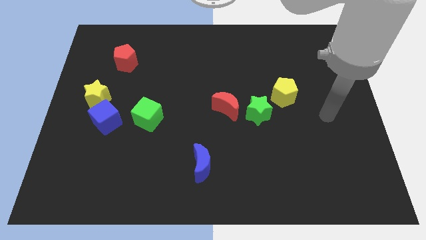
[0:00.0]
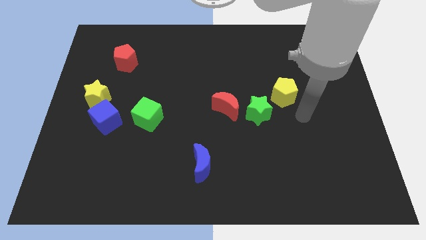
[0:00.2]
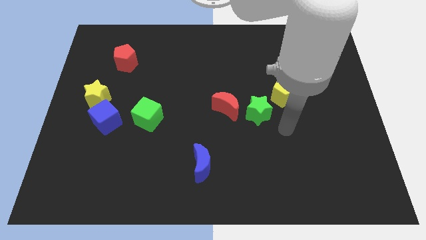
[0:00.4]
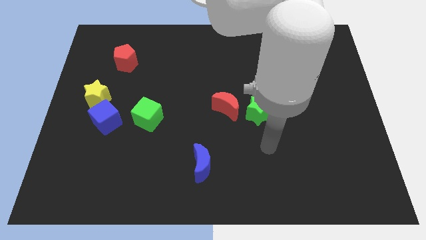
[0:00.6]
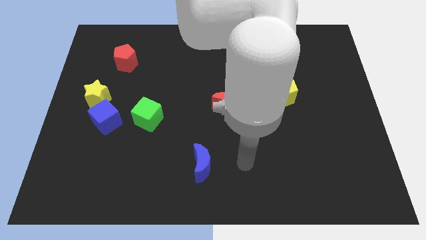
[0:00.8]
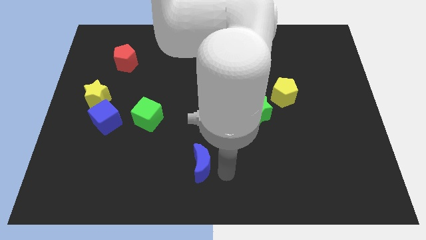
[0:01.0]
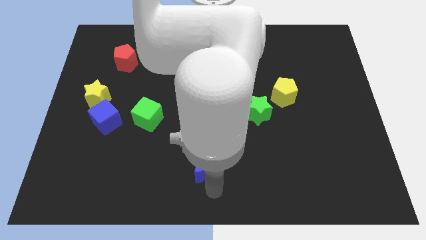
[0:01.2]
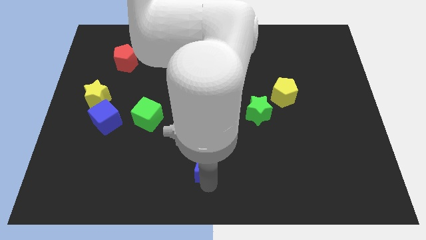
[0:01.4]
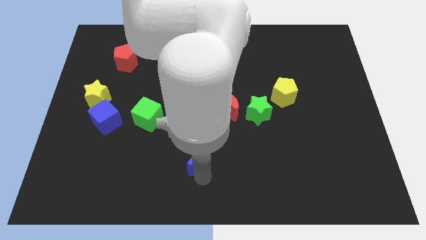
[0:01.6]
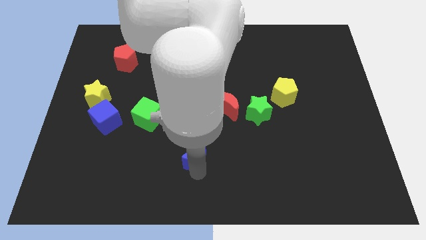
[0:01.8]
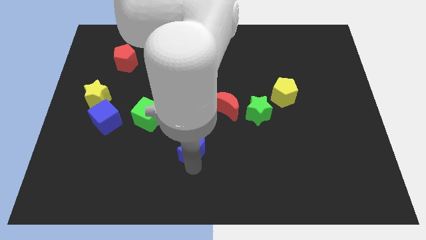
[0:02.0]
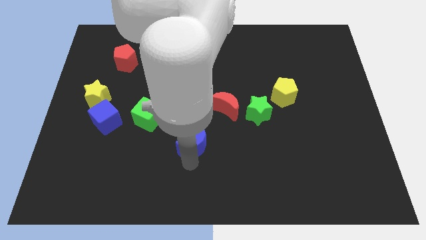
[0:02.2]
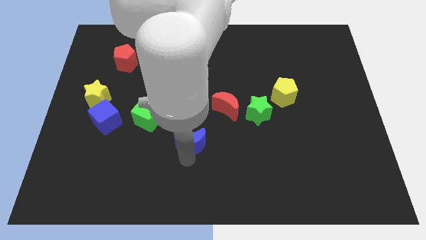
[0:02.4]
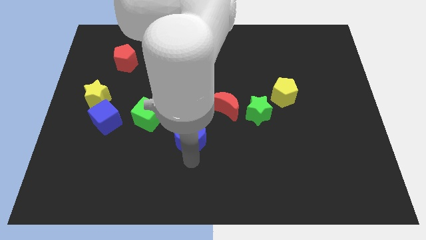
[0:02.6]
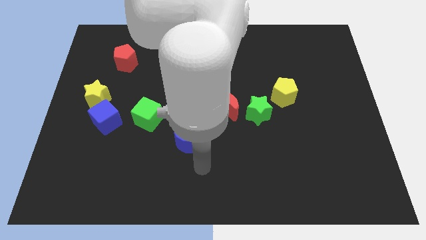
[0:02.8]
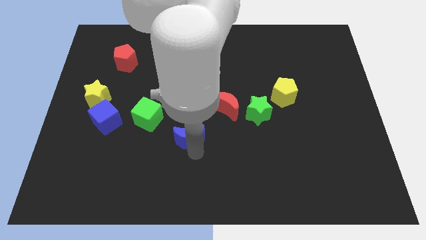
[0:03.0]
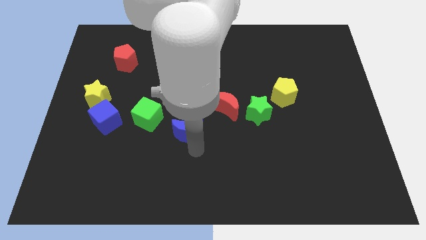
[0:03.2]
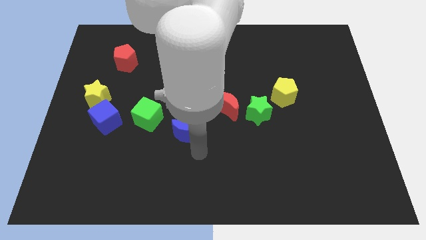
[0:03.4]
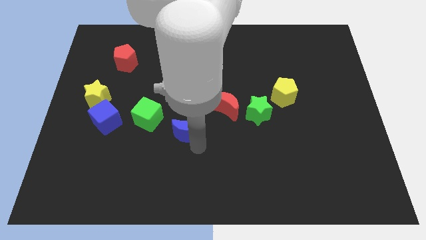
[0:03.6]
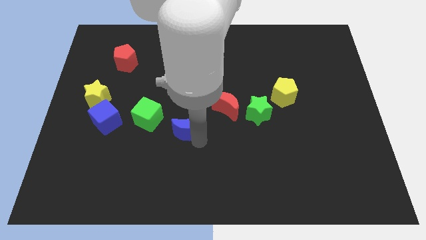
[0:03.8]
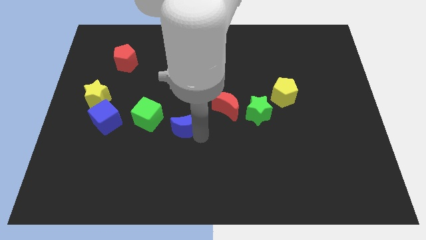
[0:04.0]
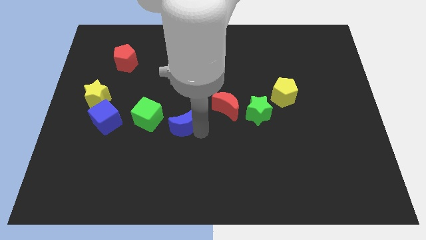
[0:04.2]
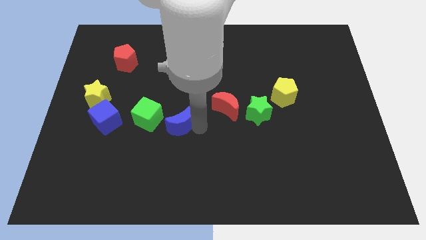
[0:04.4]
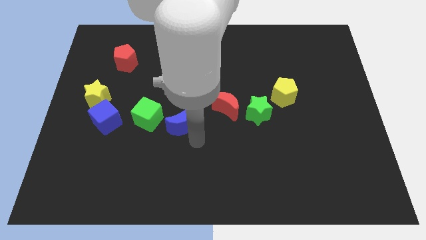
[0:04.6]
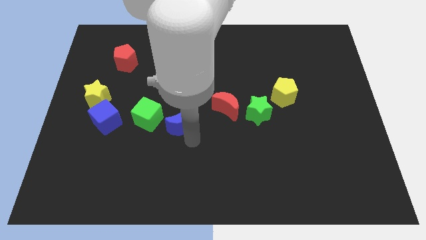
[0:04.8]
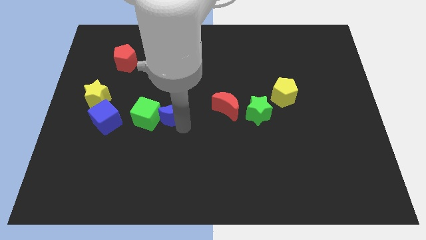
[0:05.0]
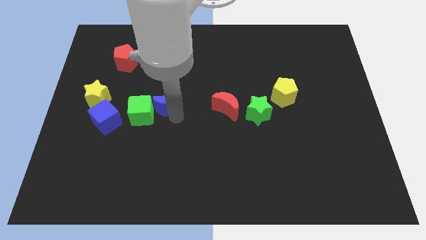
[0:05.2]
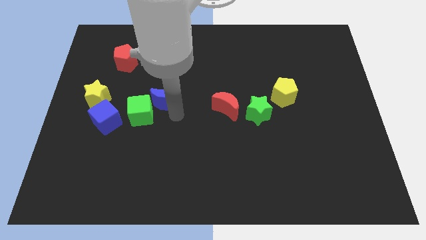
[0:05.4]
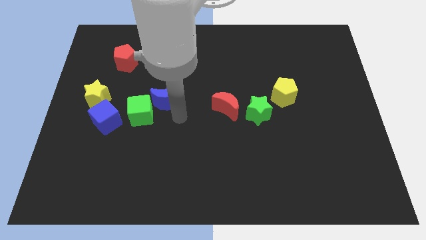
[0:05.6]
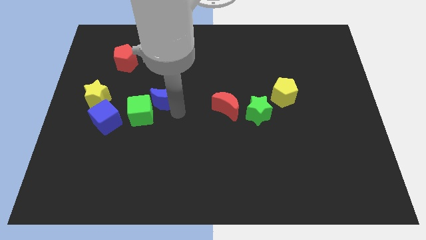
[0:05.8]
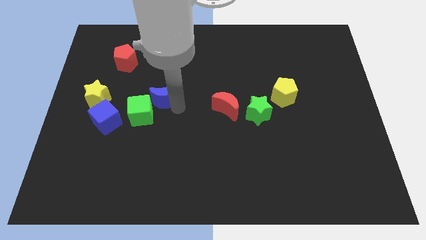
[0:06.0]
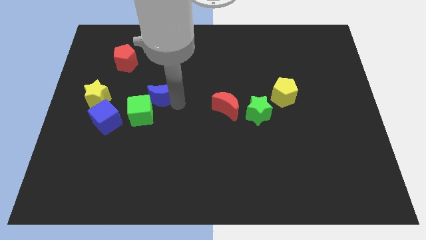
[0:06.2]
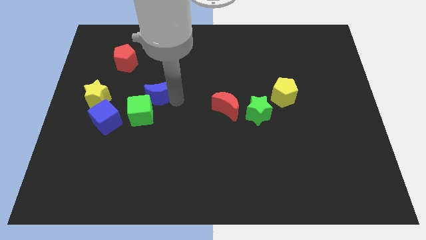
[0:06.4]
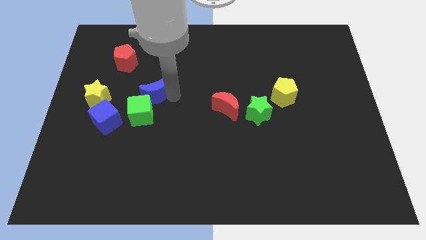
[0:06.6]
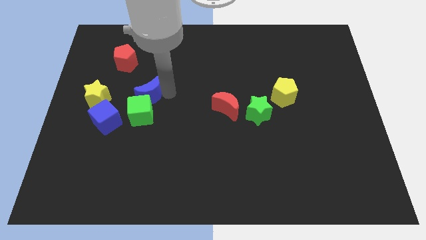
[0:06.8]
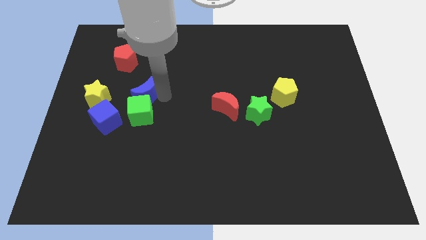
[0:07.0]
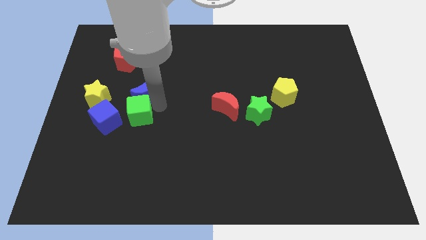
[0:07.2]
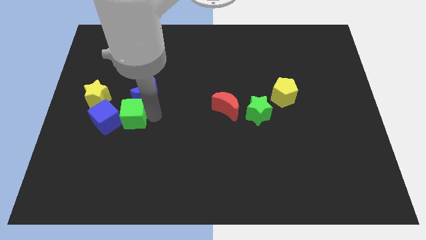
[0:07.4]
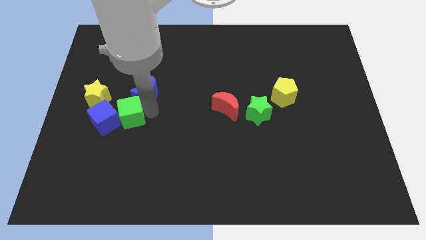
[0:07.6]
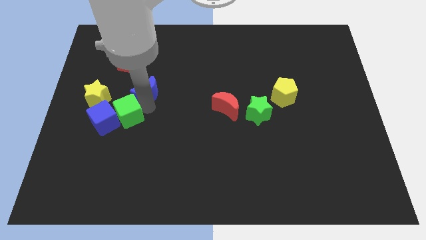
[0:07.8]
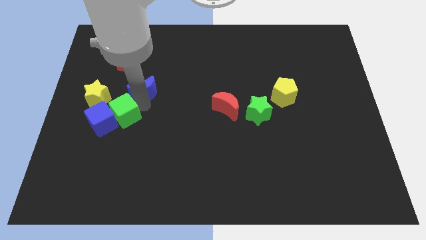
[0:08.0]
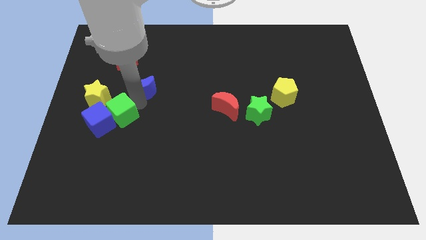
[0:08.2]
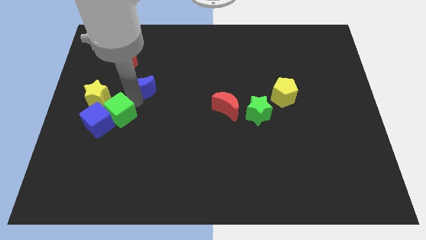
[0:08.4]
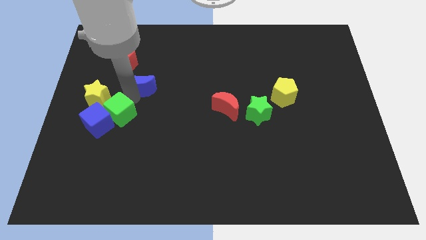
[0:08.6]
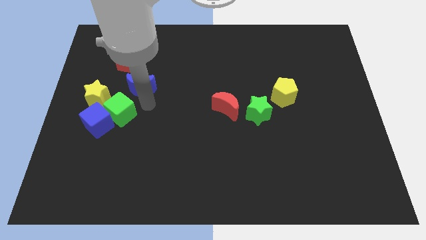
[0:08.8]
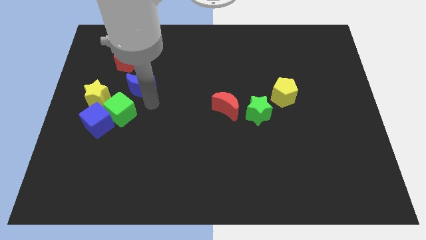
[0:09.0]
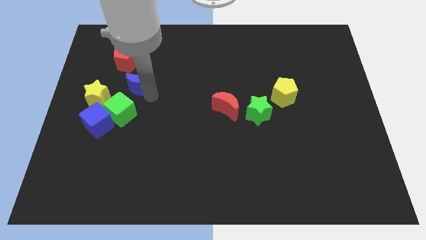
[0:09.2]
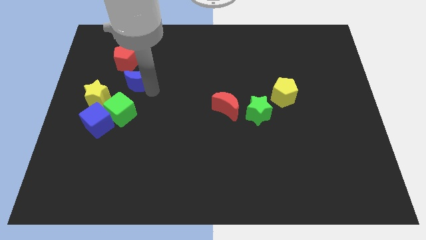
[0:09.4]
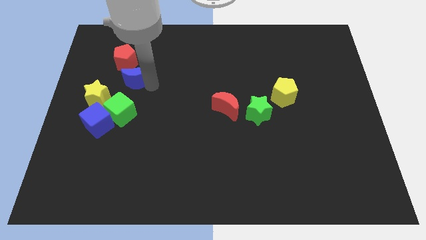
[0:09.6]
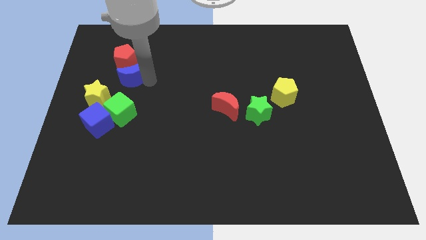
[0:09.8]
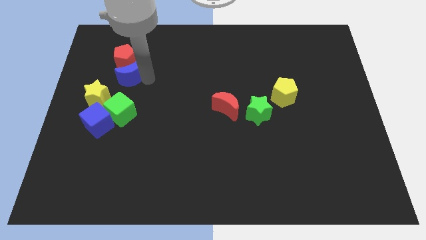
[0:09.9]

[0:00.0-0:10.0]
put the blue moon close to the red pentagon

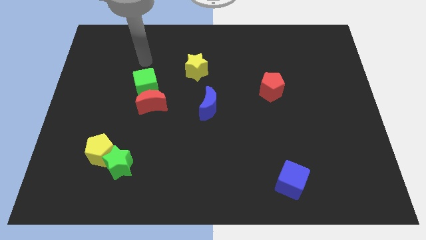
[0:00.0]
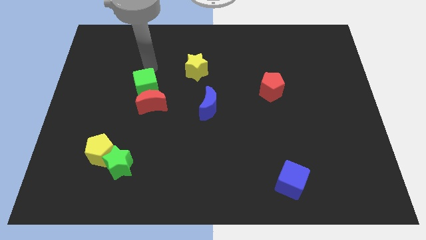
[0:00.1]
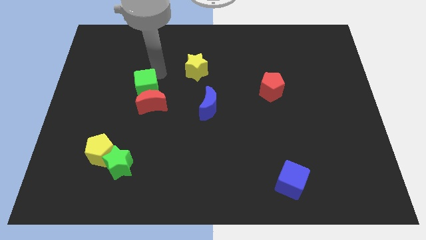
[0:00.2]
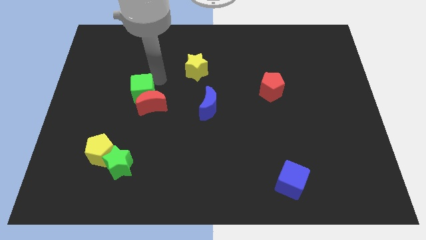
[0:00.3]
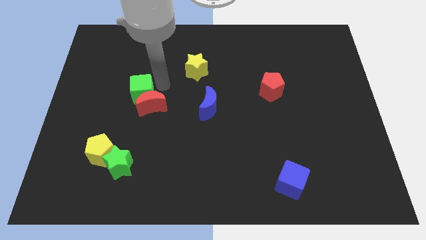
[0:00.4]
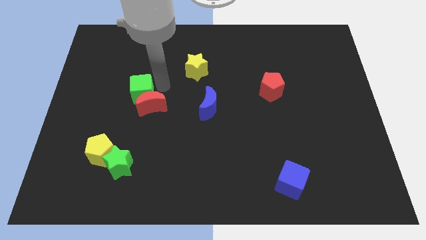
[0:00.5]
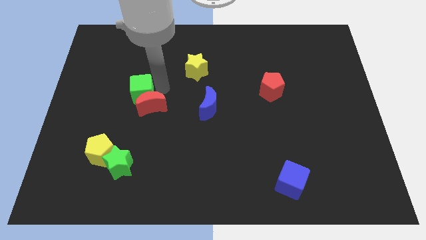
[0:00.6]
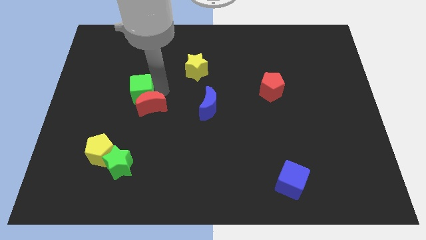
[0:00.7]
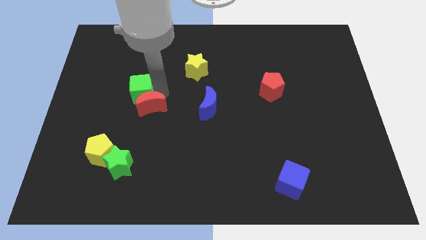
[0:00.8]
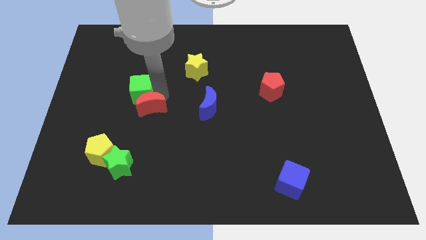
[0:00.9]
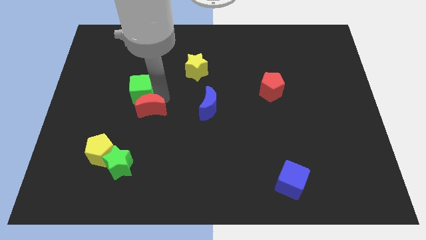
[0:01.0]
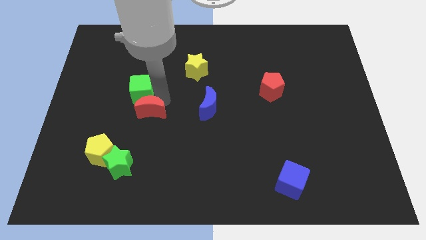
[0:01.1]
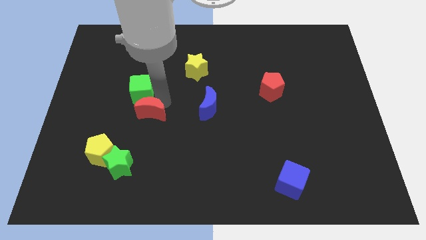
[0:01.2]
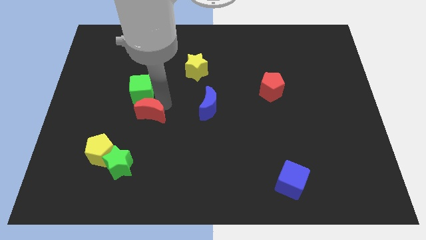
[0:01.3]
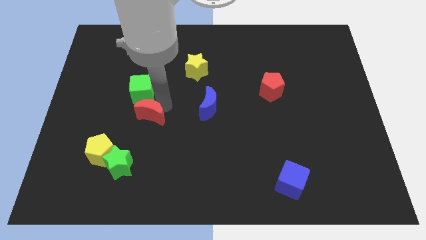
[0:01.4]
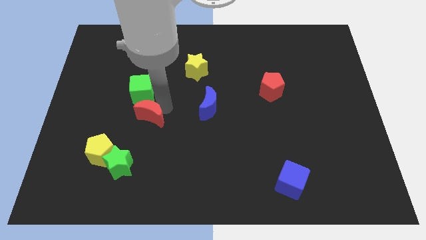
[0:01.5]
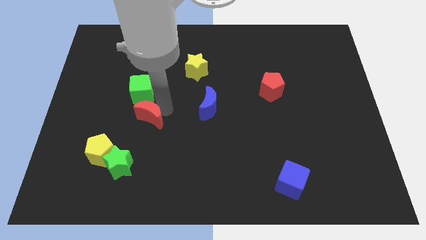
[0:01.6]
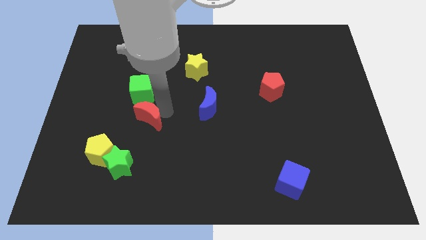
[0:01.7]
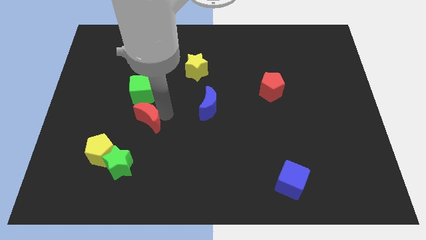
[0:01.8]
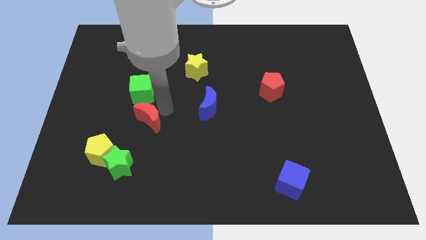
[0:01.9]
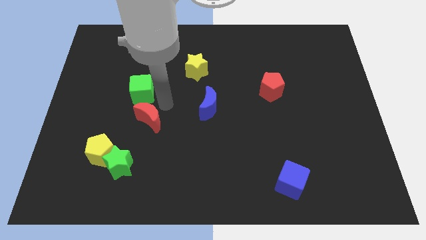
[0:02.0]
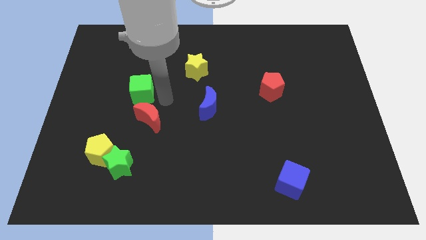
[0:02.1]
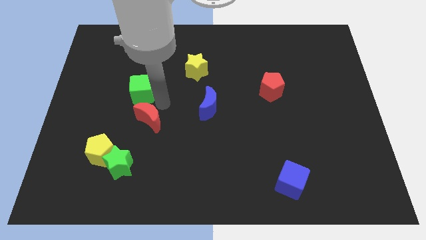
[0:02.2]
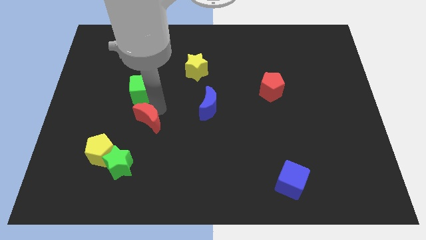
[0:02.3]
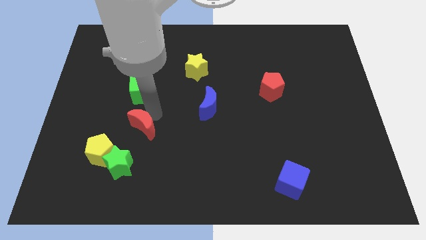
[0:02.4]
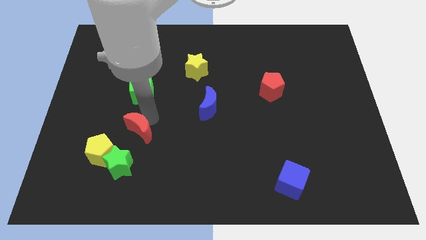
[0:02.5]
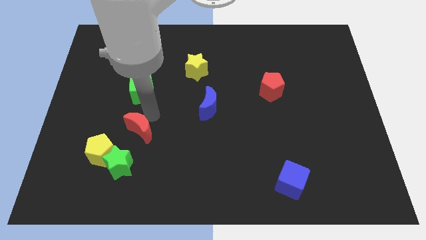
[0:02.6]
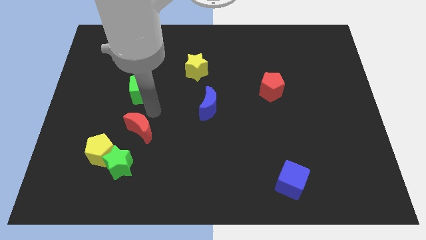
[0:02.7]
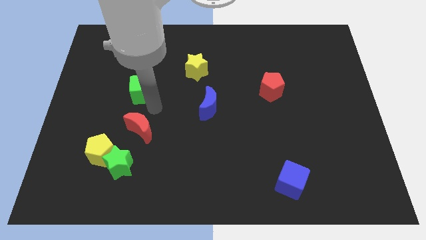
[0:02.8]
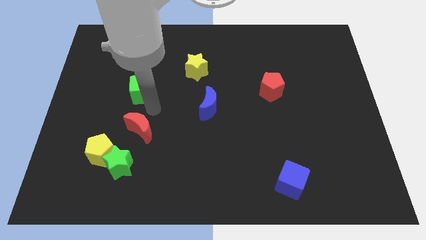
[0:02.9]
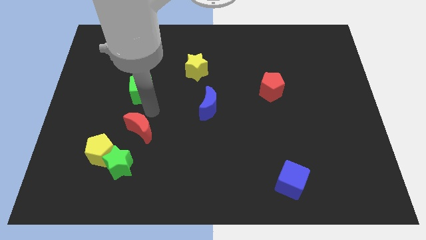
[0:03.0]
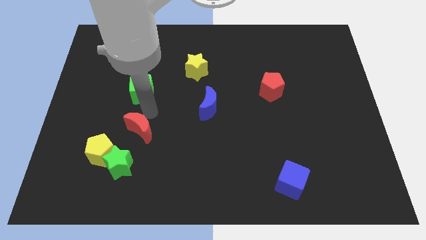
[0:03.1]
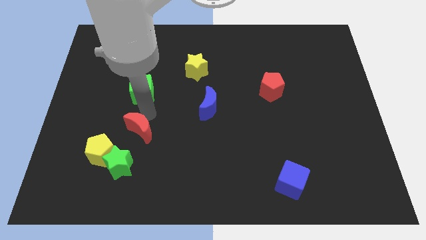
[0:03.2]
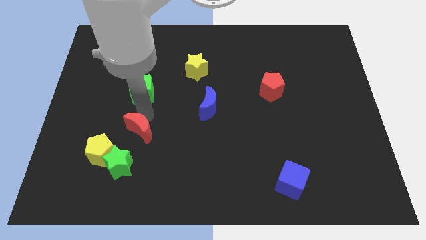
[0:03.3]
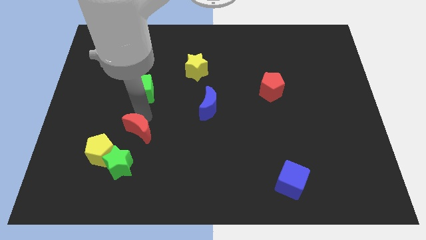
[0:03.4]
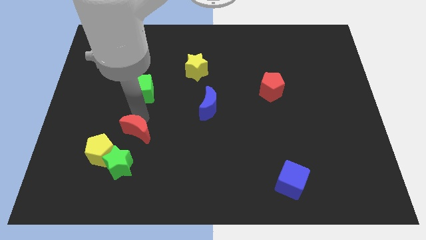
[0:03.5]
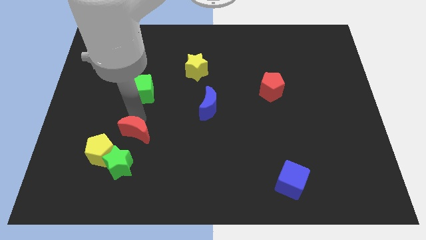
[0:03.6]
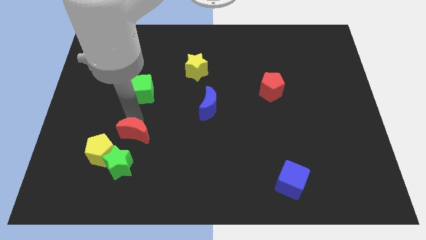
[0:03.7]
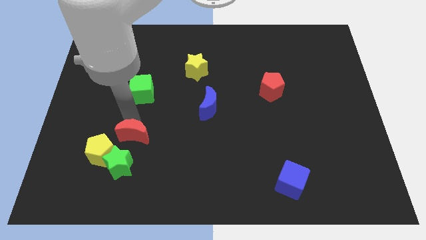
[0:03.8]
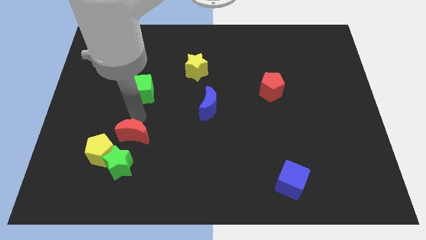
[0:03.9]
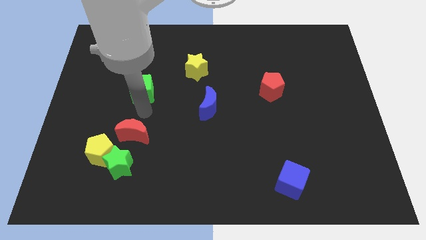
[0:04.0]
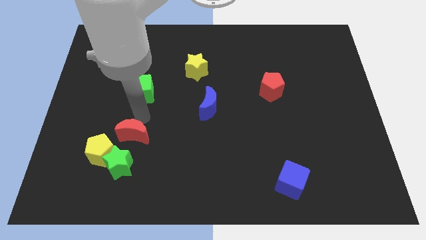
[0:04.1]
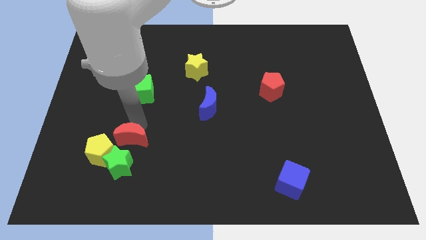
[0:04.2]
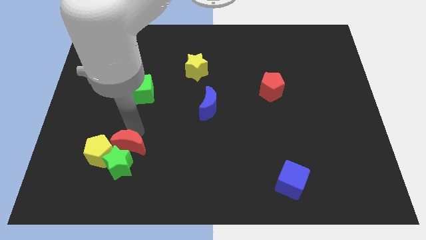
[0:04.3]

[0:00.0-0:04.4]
put the red moon next to the green star
